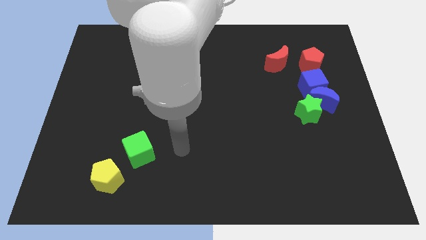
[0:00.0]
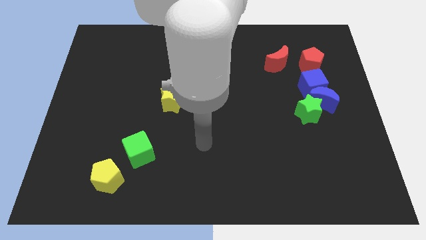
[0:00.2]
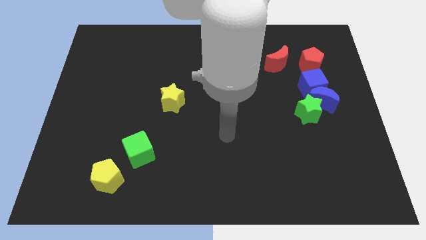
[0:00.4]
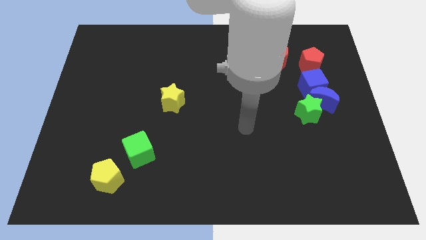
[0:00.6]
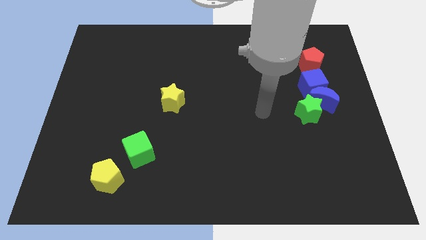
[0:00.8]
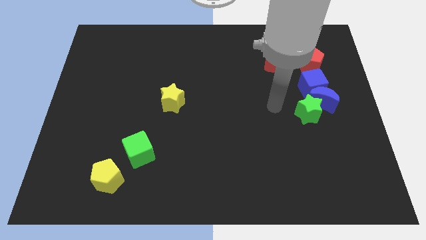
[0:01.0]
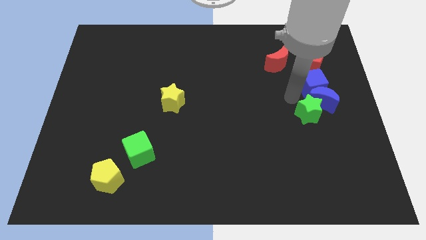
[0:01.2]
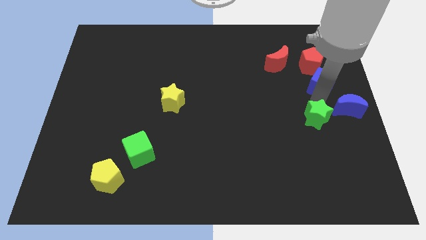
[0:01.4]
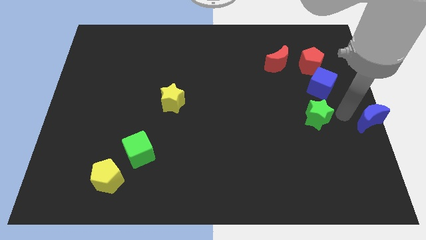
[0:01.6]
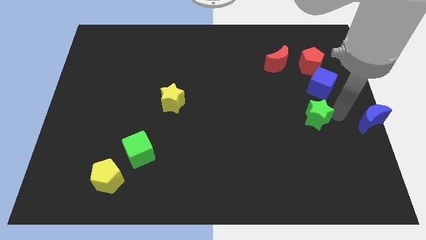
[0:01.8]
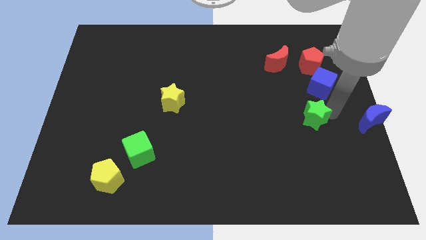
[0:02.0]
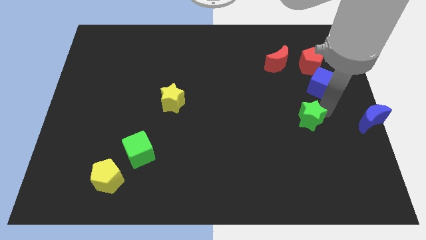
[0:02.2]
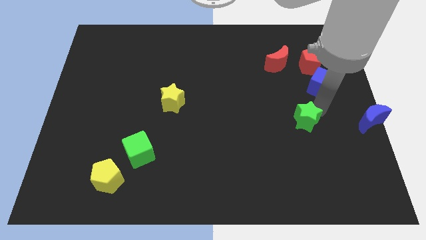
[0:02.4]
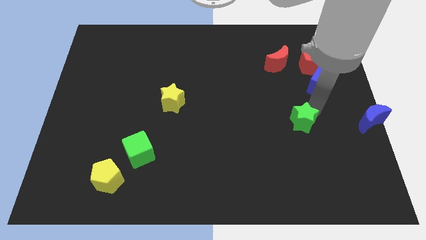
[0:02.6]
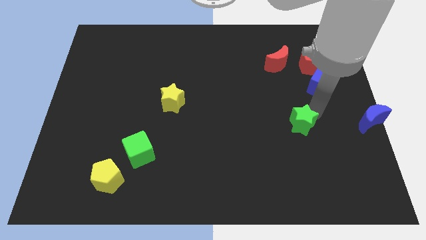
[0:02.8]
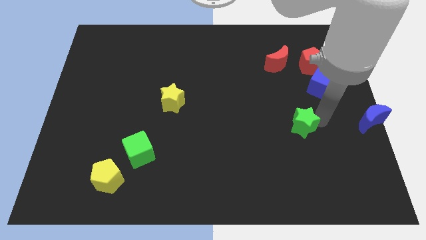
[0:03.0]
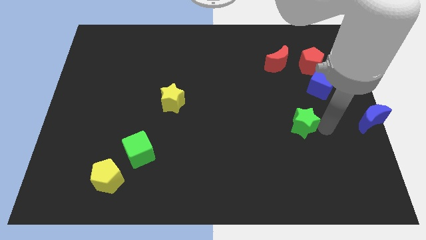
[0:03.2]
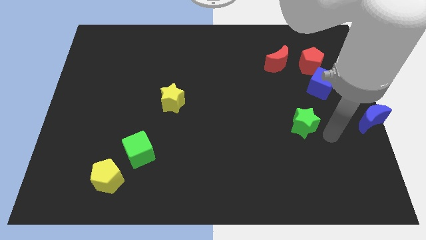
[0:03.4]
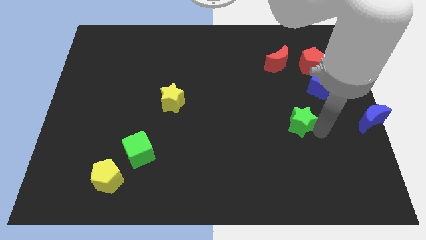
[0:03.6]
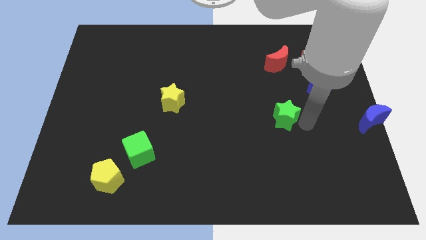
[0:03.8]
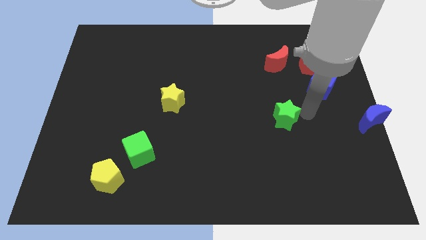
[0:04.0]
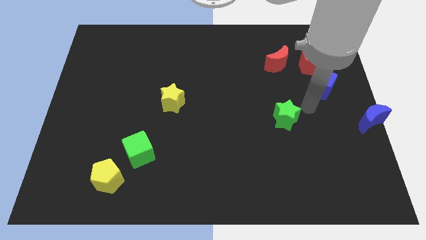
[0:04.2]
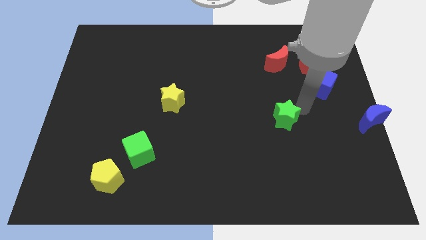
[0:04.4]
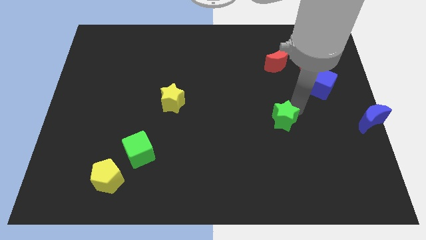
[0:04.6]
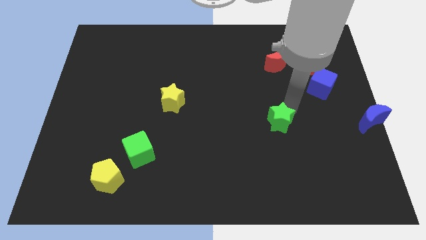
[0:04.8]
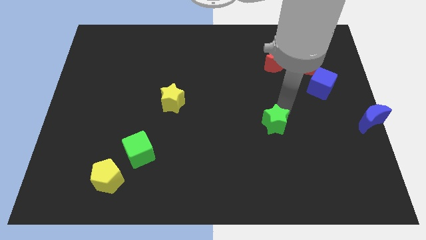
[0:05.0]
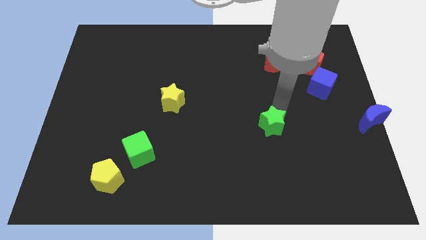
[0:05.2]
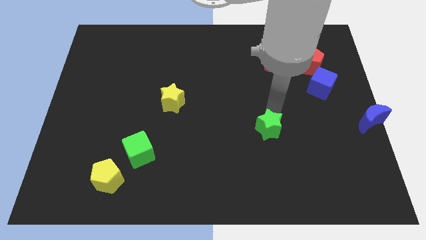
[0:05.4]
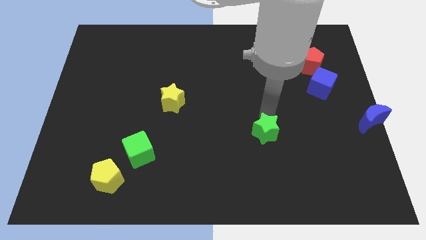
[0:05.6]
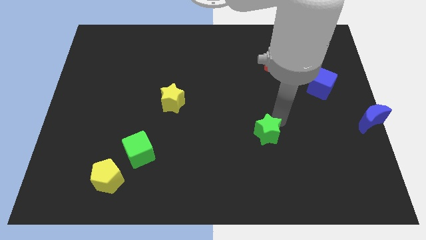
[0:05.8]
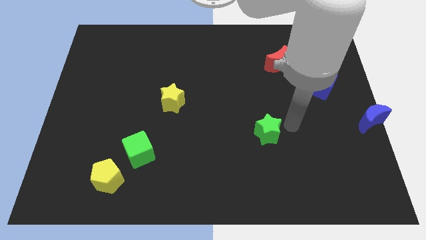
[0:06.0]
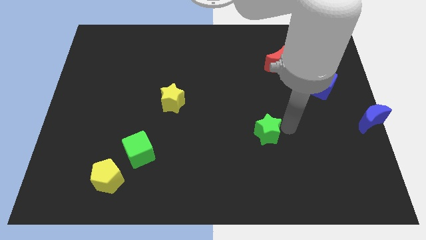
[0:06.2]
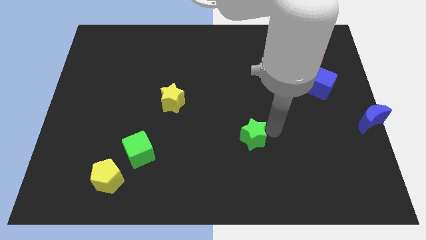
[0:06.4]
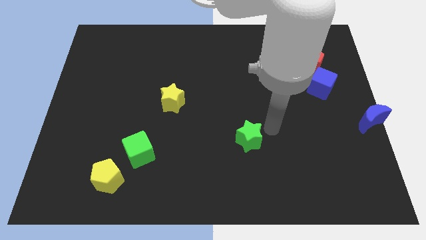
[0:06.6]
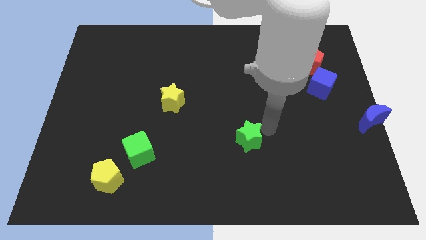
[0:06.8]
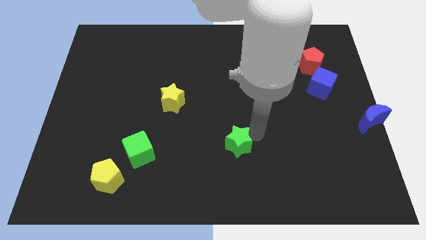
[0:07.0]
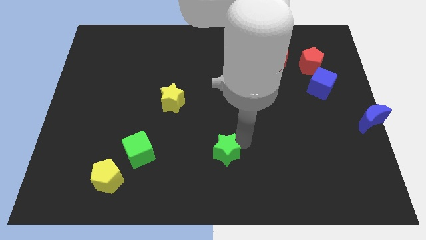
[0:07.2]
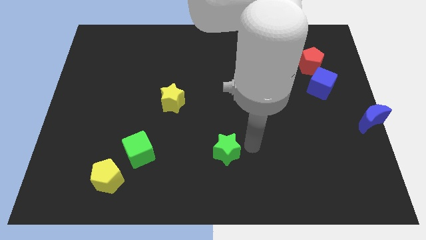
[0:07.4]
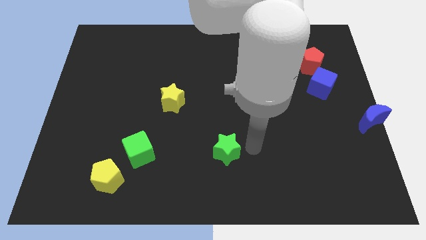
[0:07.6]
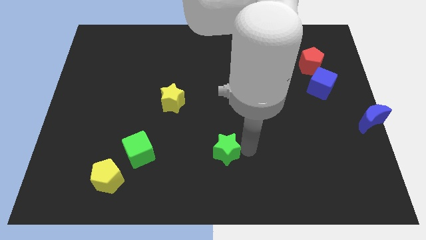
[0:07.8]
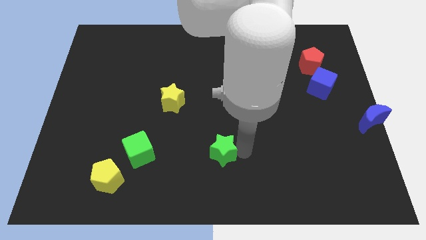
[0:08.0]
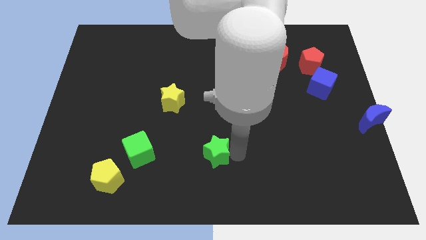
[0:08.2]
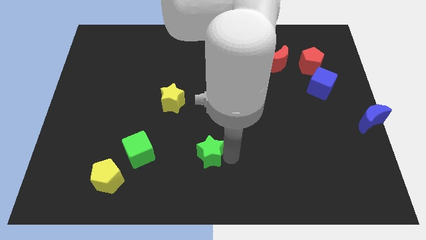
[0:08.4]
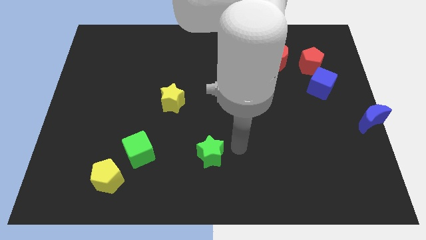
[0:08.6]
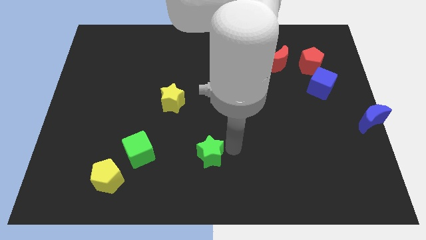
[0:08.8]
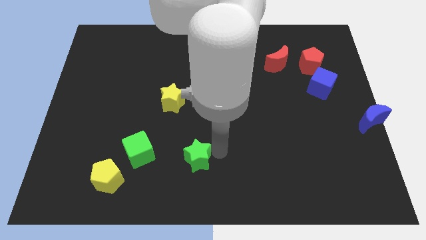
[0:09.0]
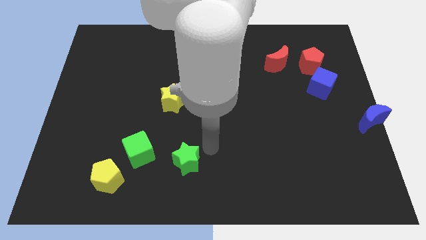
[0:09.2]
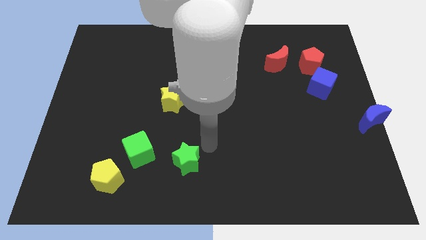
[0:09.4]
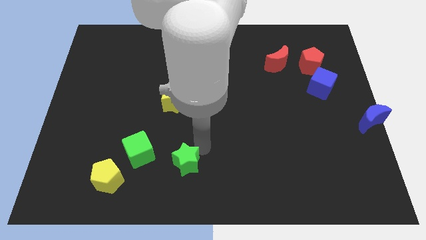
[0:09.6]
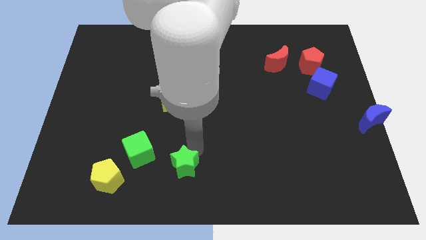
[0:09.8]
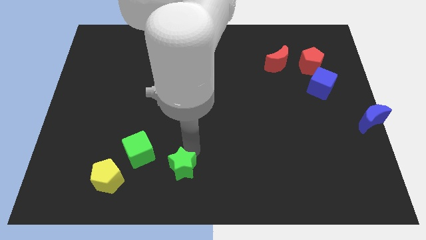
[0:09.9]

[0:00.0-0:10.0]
move the green star right of the yellow pentagon

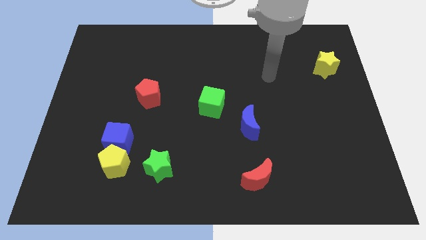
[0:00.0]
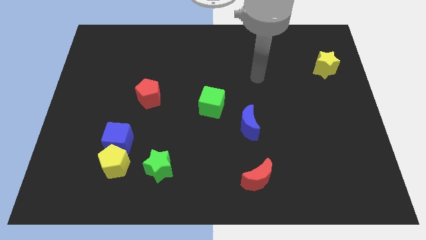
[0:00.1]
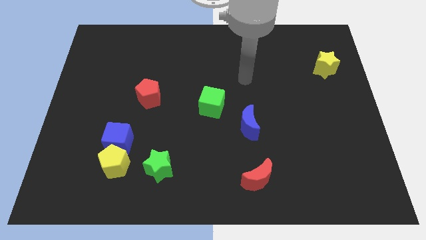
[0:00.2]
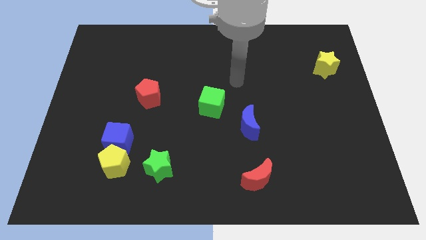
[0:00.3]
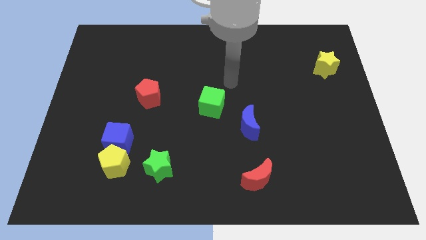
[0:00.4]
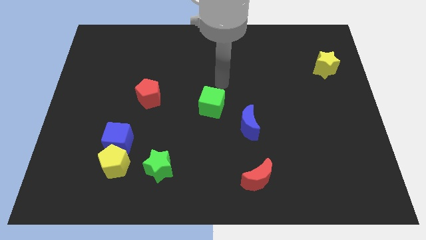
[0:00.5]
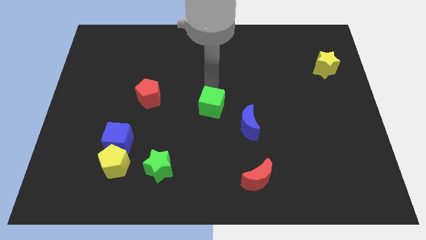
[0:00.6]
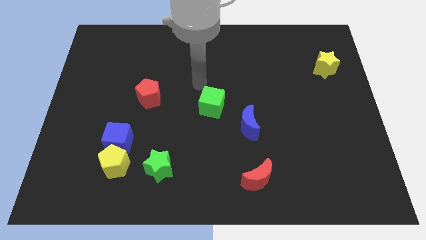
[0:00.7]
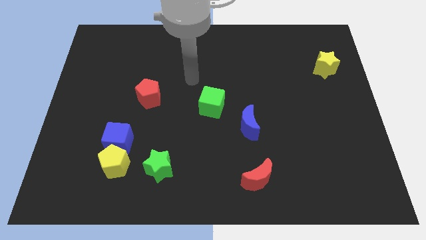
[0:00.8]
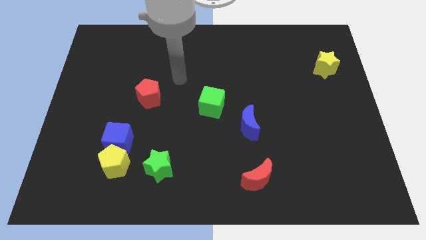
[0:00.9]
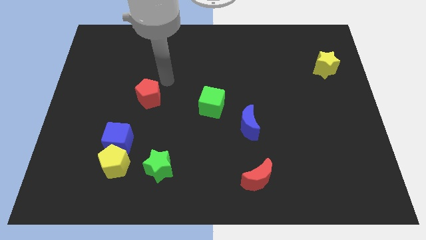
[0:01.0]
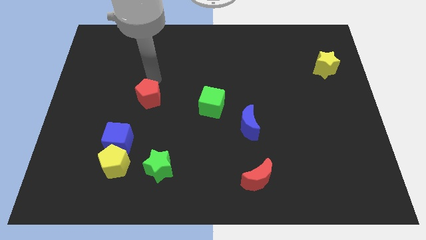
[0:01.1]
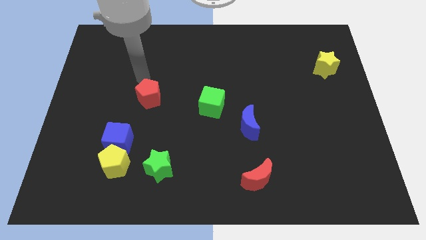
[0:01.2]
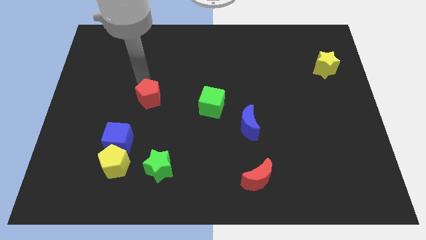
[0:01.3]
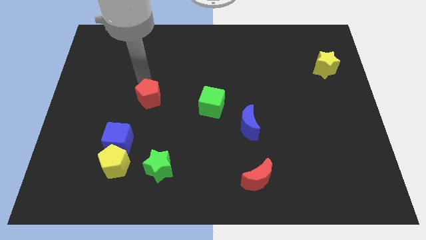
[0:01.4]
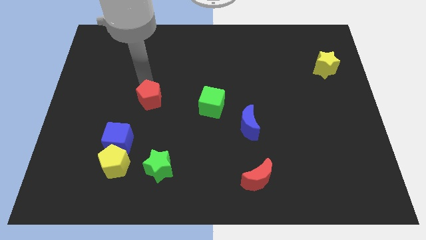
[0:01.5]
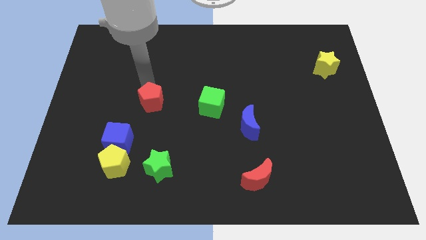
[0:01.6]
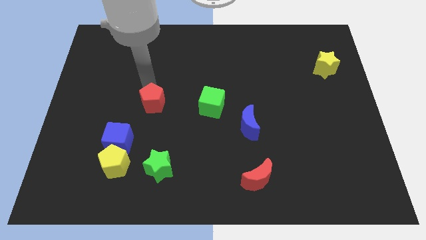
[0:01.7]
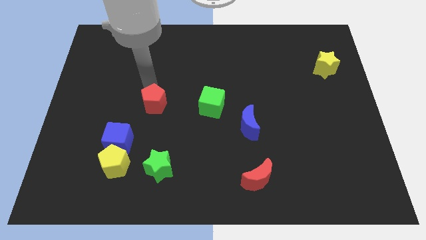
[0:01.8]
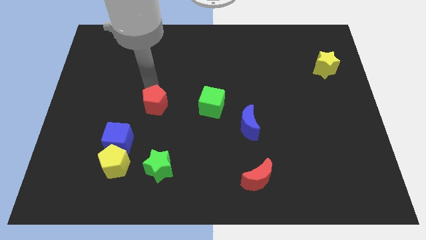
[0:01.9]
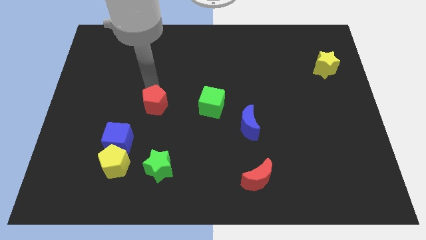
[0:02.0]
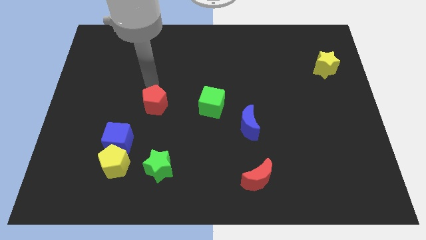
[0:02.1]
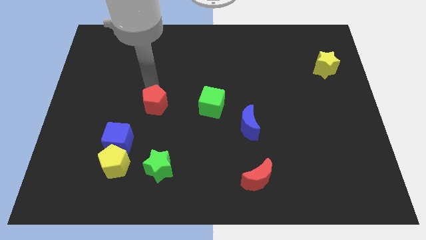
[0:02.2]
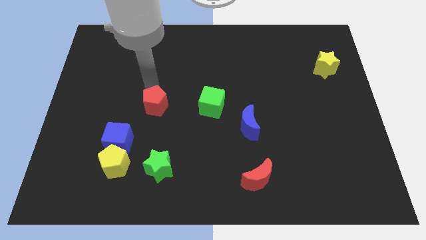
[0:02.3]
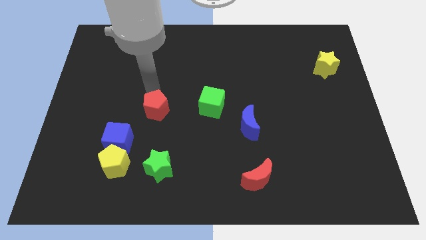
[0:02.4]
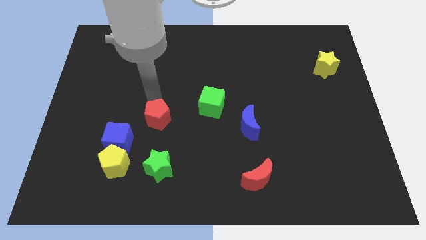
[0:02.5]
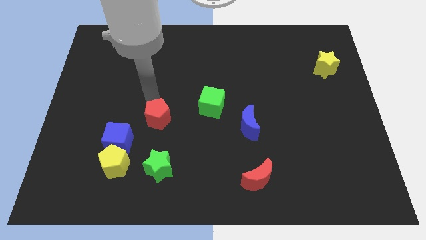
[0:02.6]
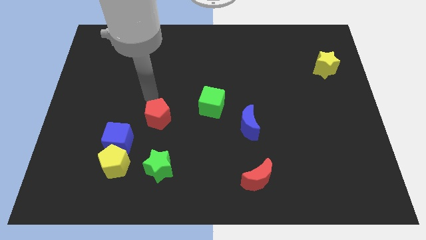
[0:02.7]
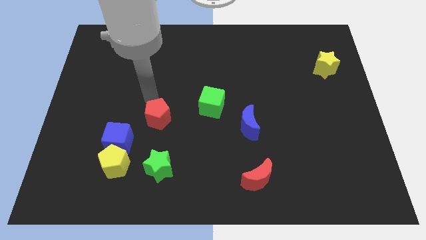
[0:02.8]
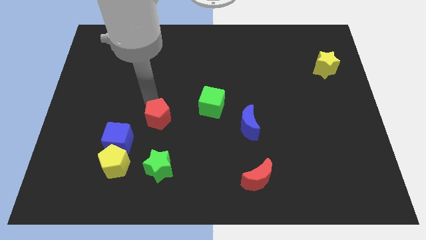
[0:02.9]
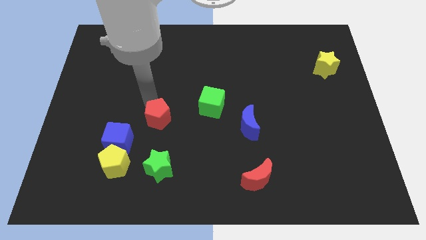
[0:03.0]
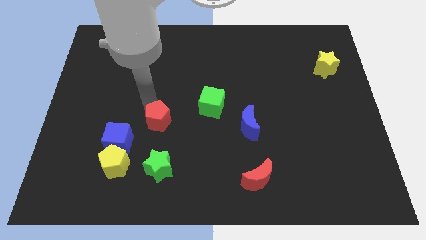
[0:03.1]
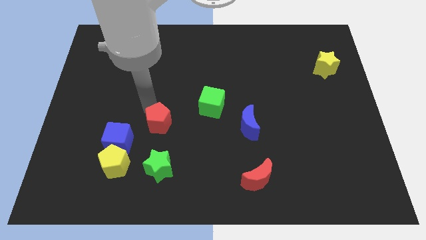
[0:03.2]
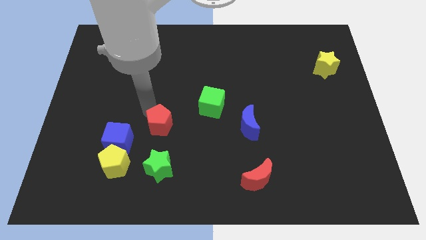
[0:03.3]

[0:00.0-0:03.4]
slide the red pentagon just right of the blue cube
